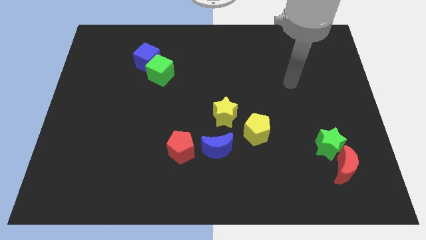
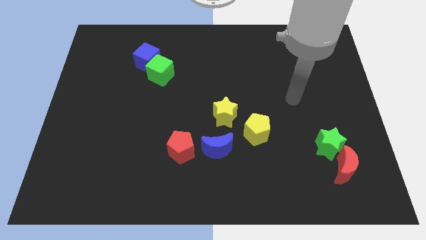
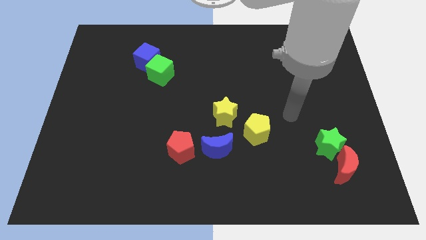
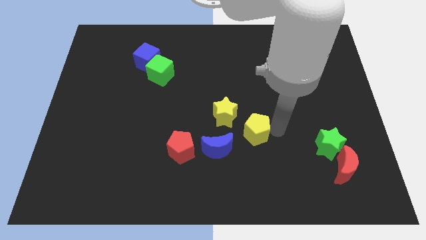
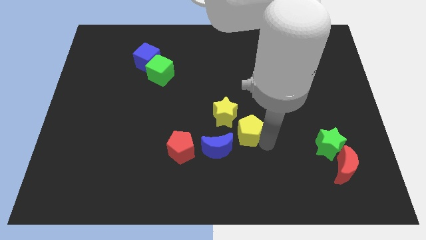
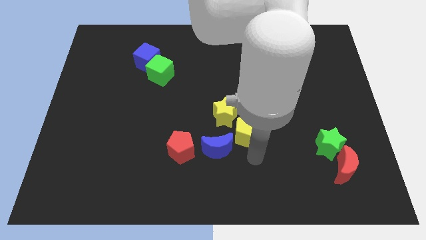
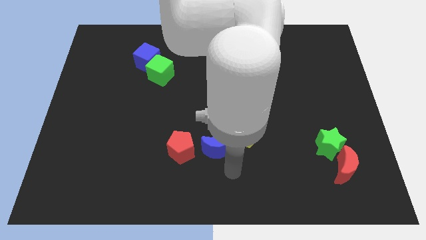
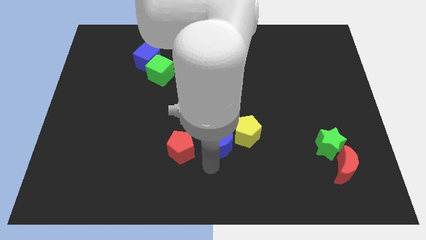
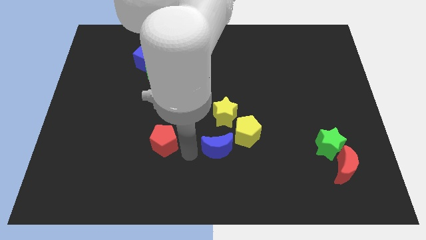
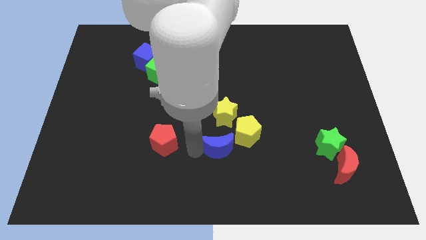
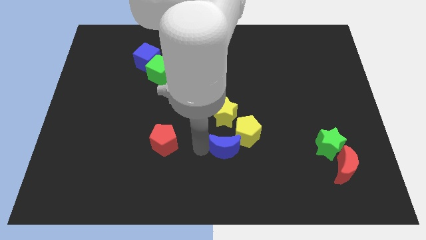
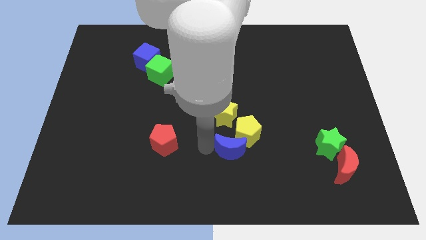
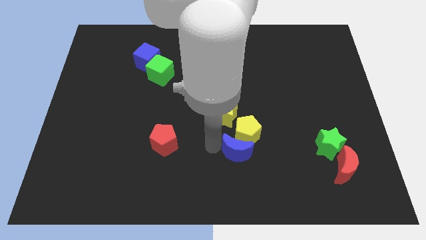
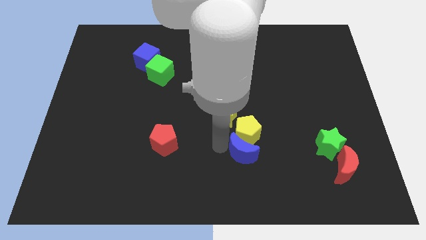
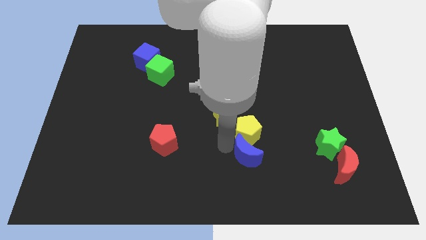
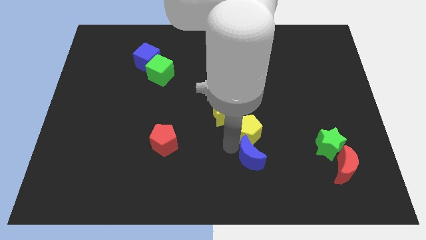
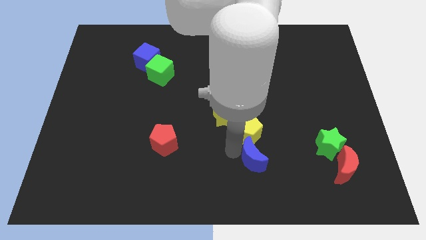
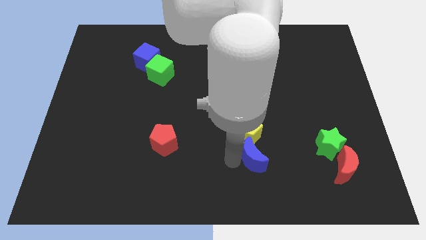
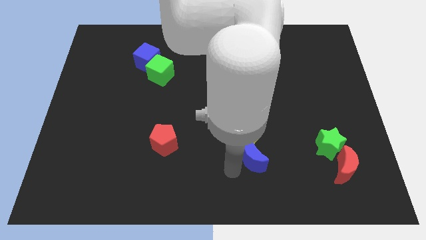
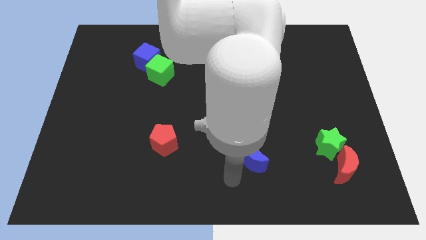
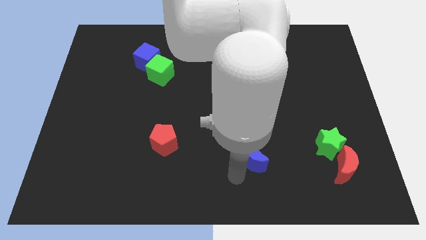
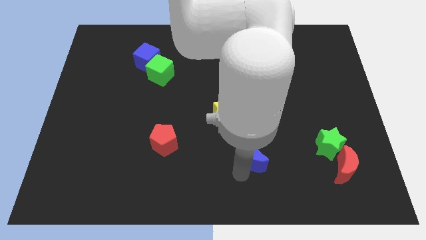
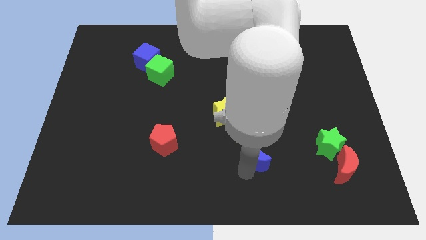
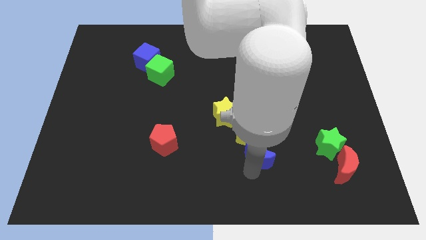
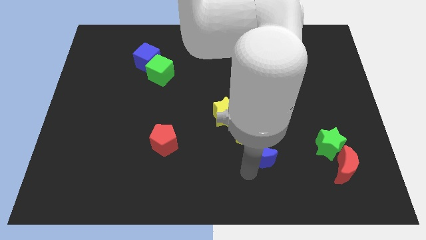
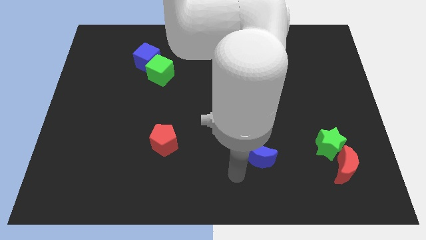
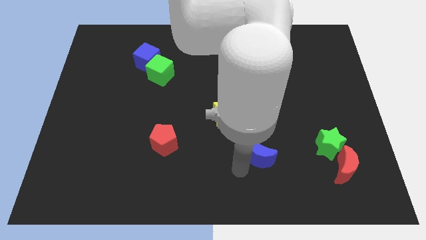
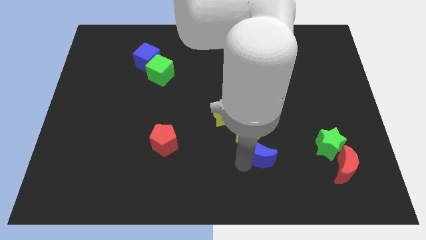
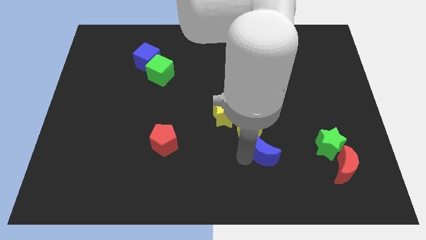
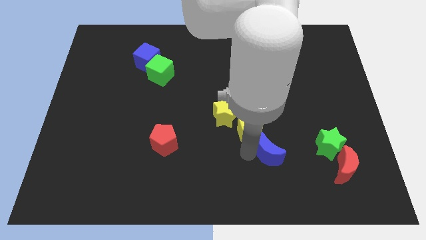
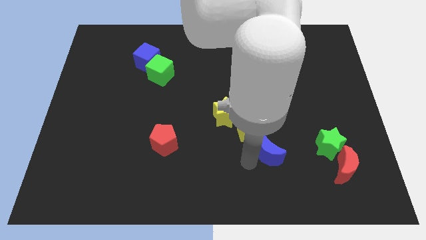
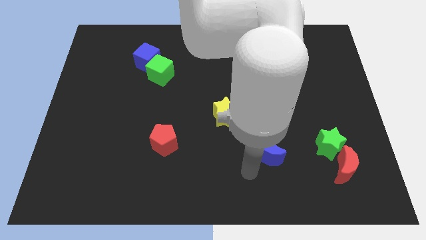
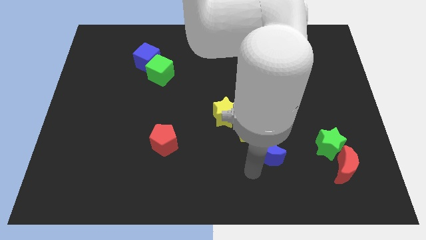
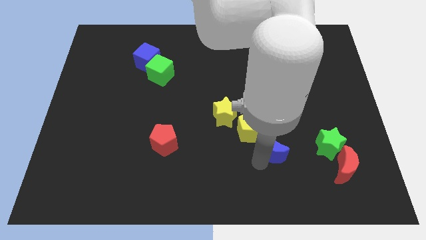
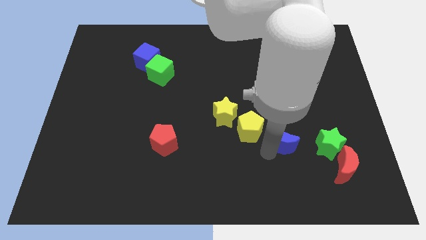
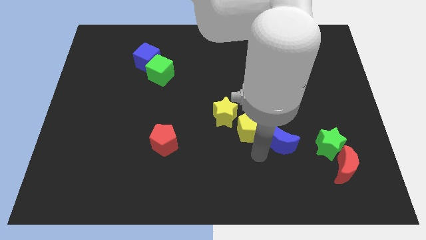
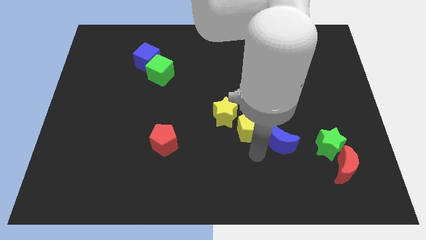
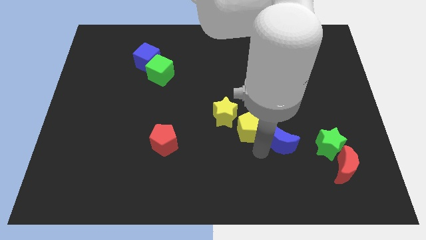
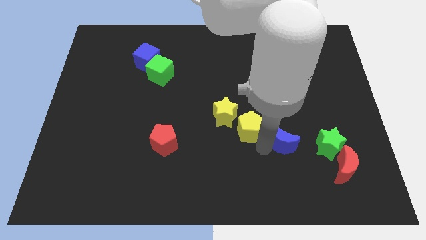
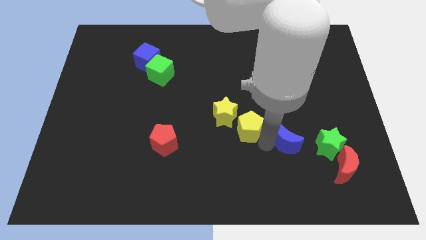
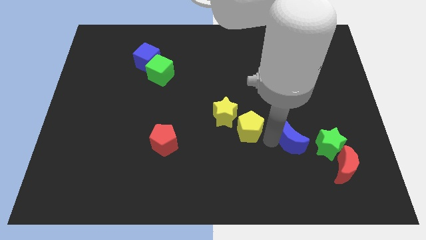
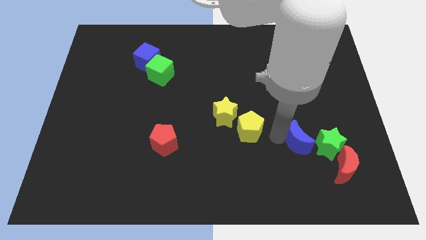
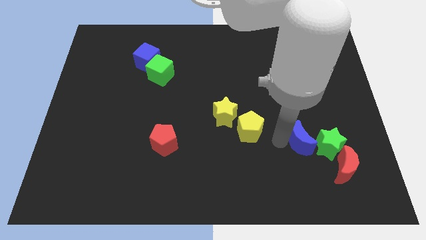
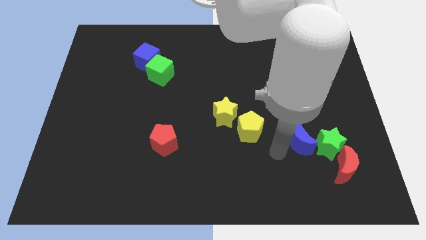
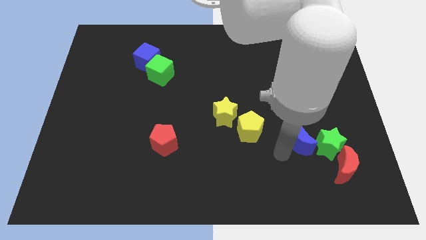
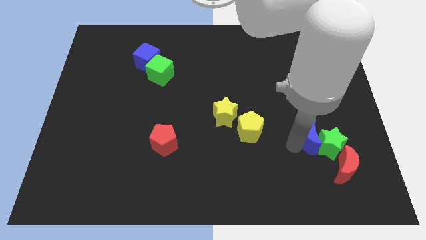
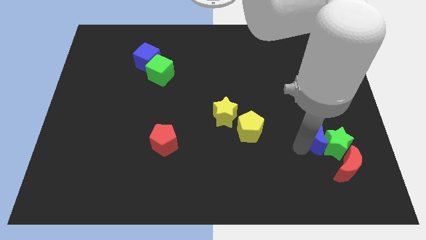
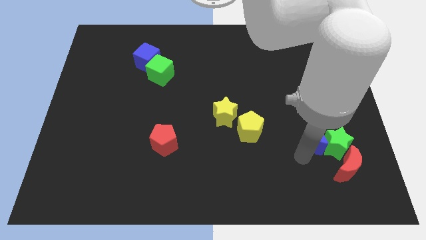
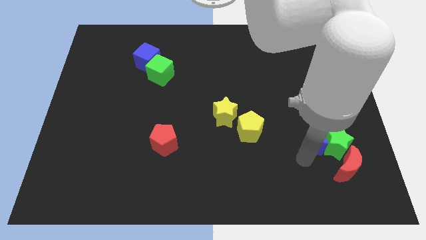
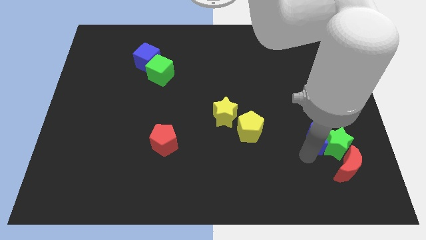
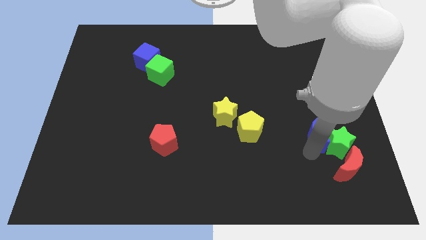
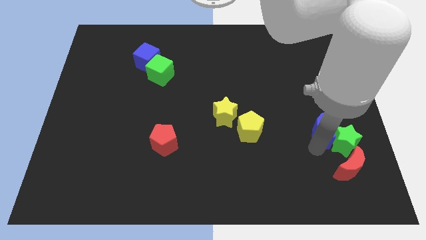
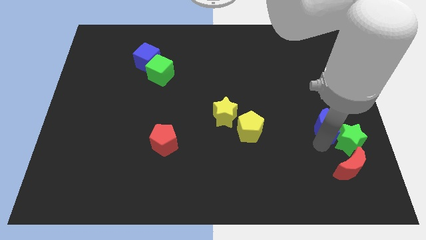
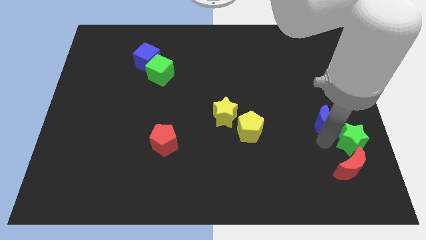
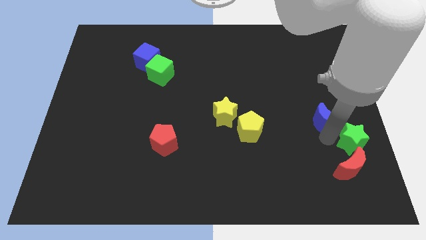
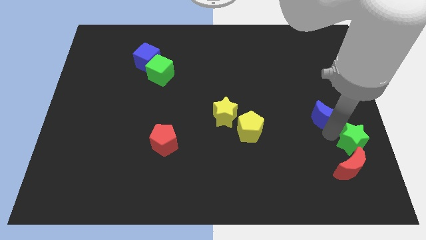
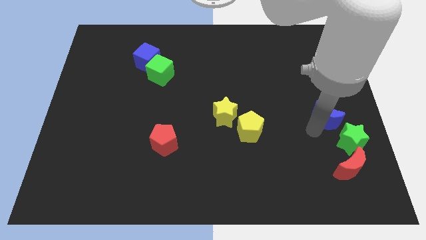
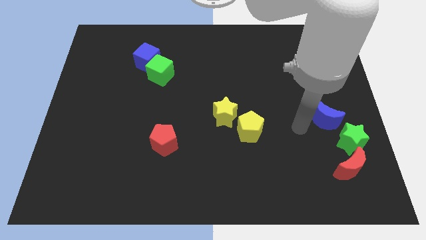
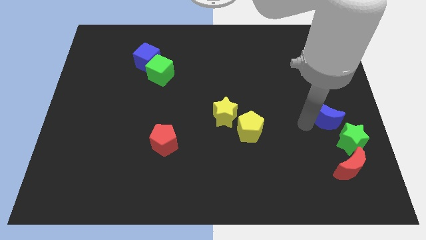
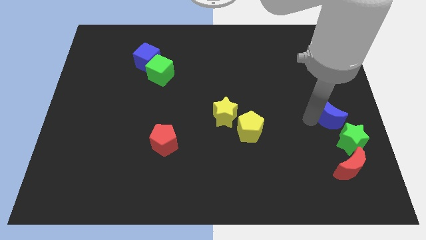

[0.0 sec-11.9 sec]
move the blue moon to the right side

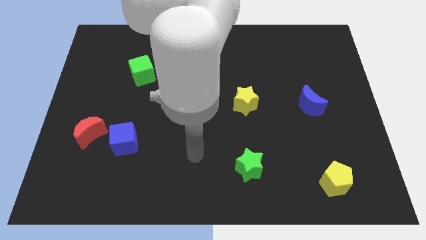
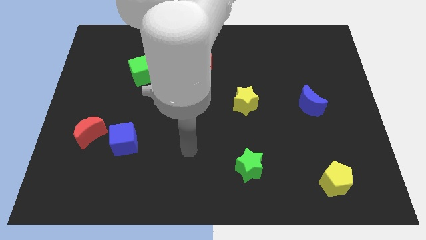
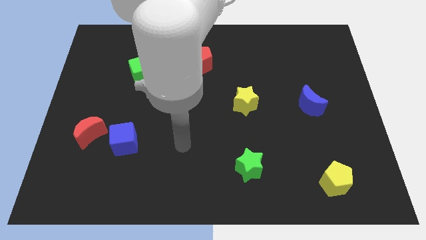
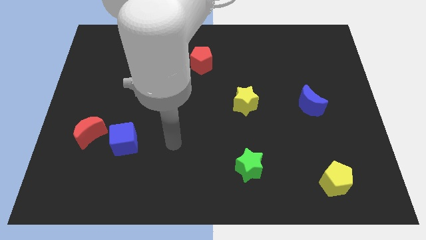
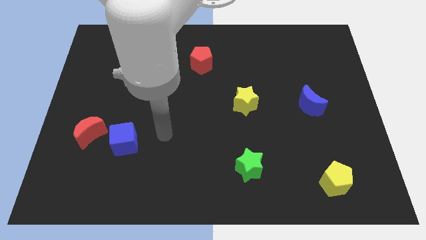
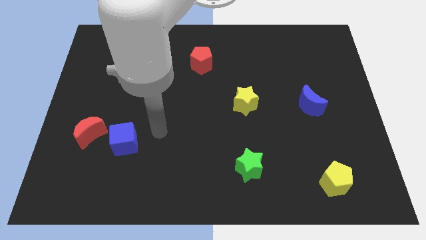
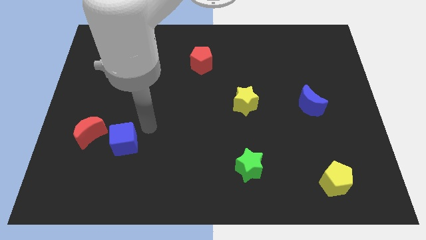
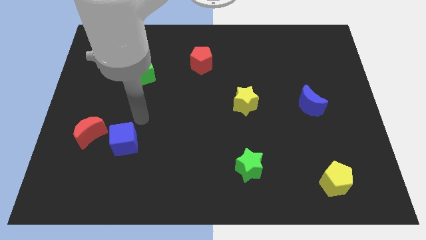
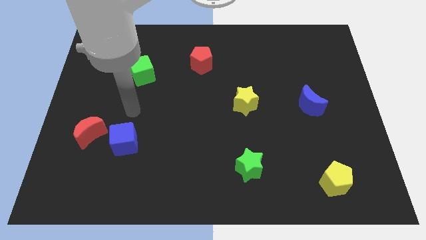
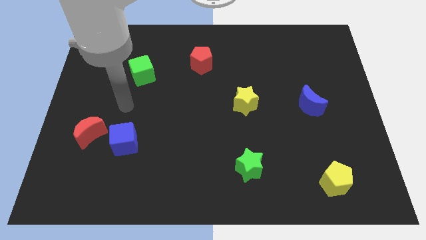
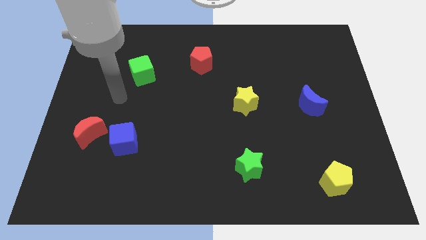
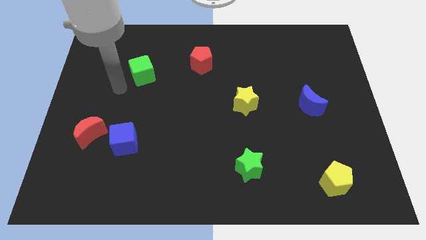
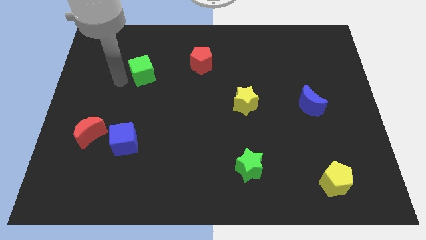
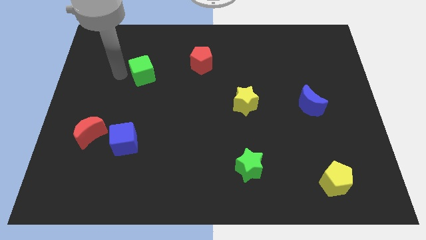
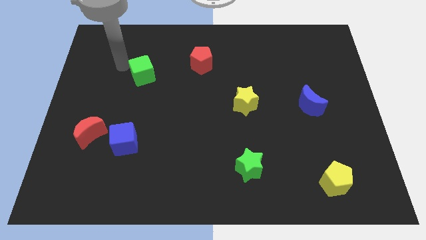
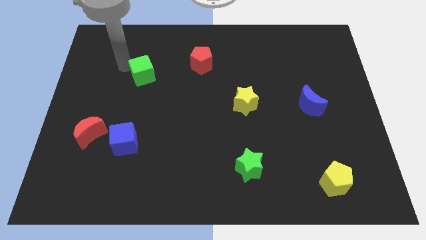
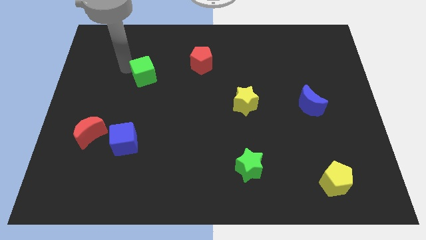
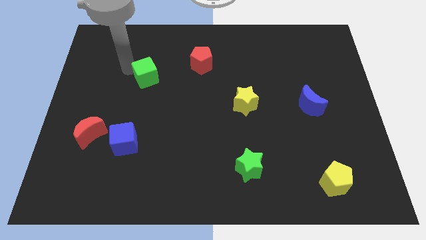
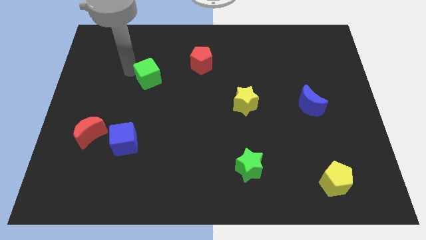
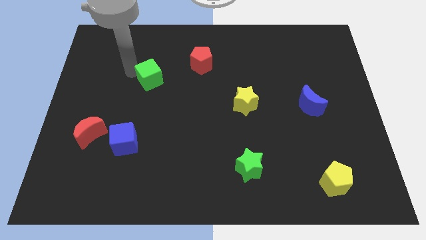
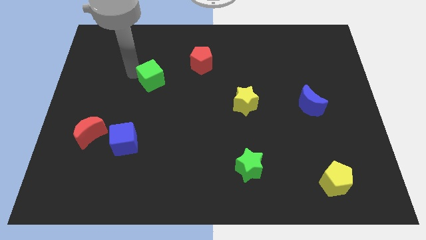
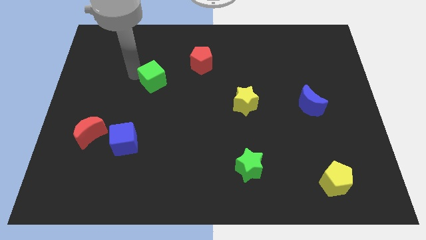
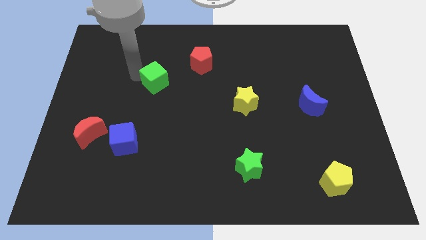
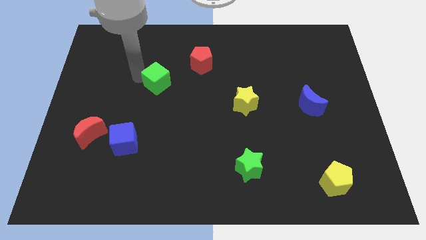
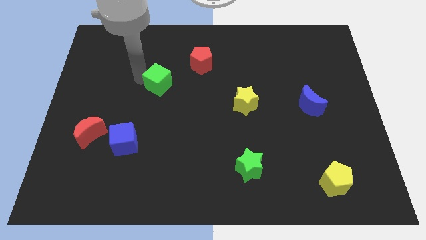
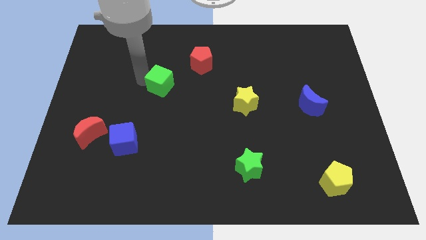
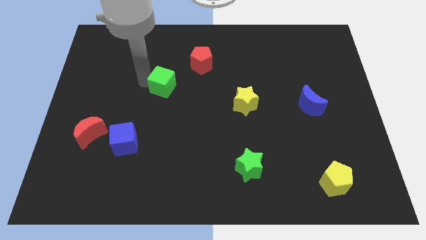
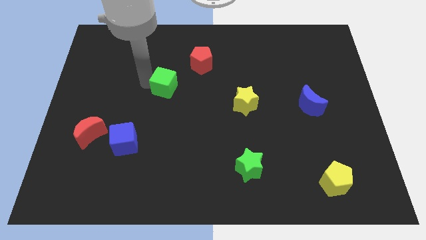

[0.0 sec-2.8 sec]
move the green cube to the center
